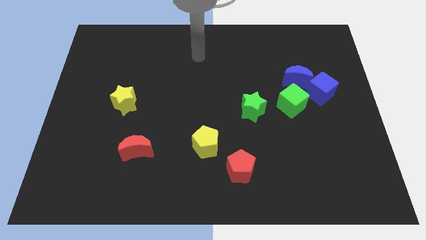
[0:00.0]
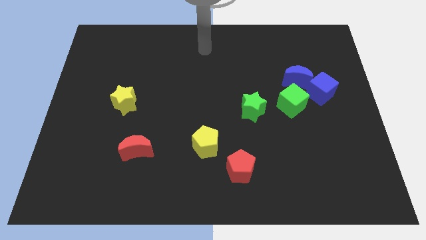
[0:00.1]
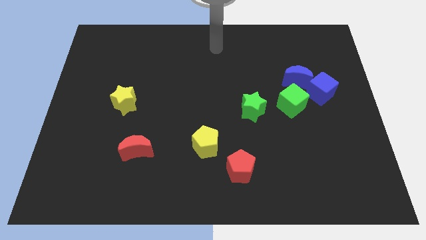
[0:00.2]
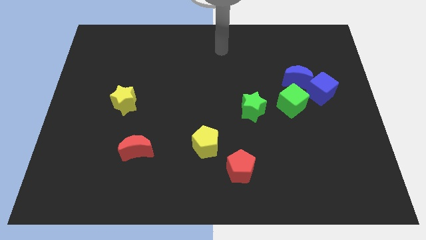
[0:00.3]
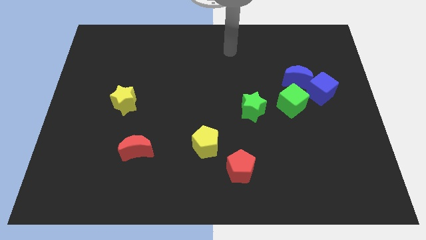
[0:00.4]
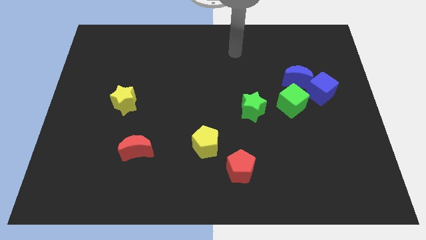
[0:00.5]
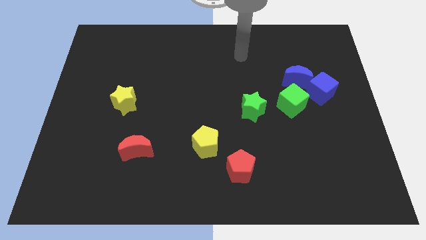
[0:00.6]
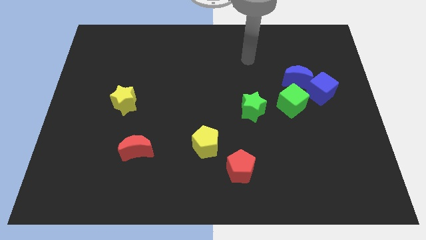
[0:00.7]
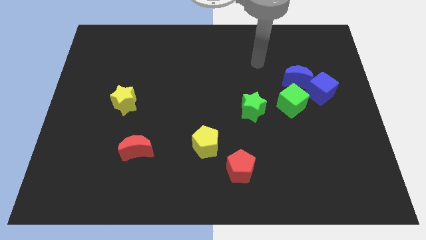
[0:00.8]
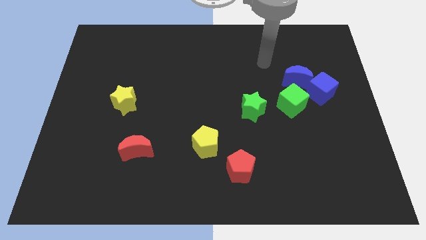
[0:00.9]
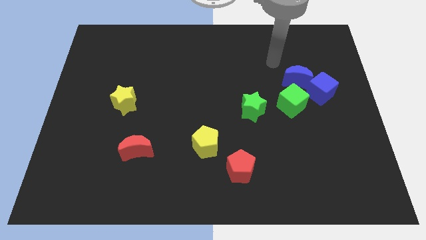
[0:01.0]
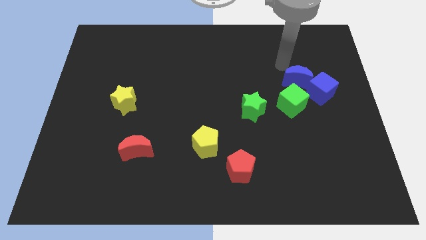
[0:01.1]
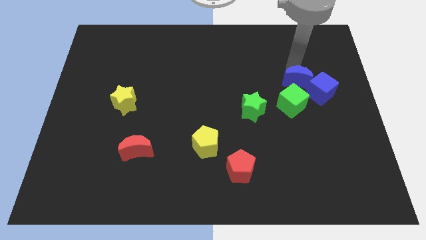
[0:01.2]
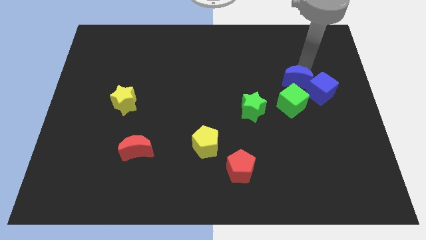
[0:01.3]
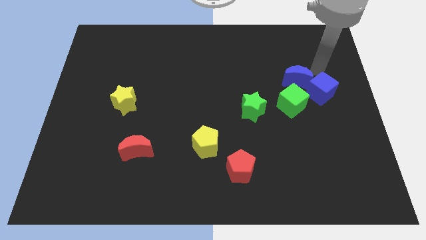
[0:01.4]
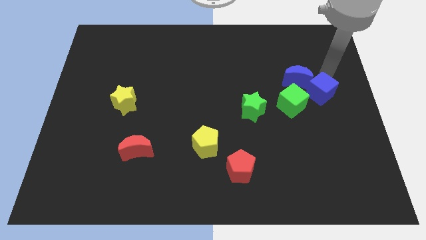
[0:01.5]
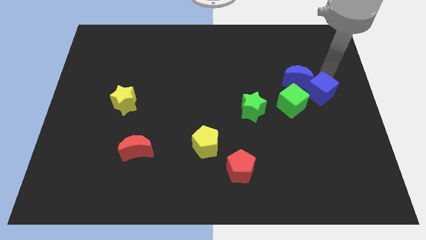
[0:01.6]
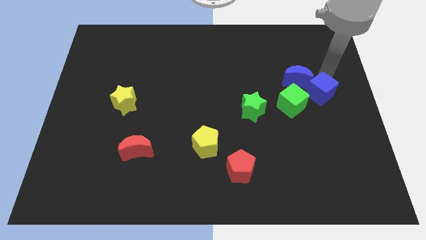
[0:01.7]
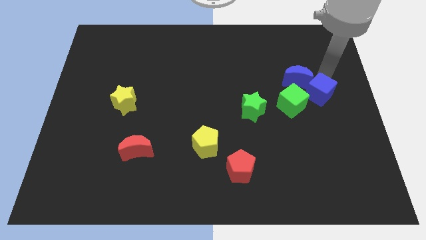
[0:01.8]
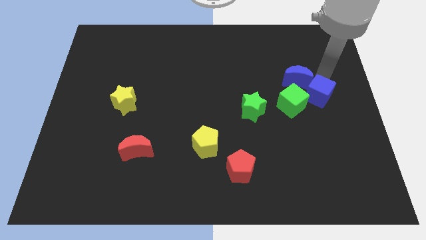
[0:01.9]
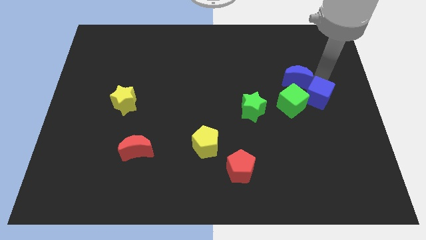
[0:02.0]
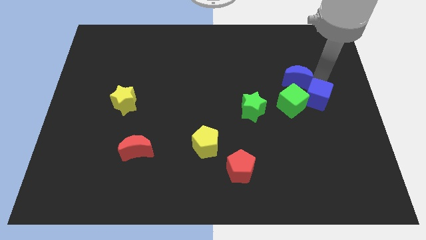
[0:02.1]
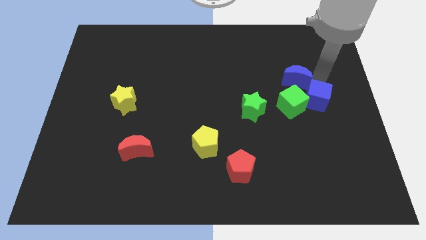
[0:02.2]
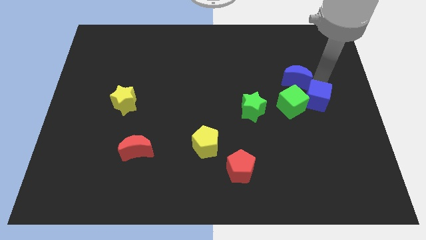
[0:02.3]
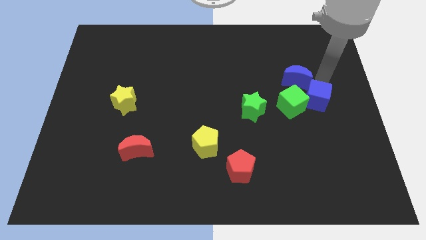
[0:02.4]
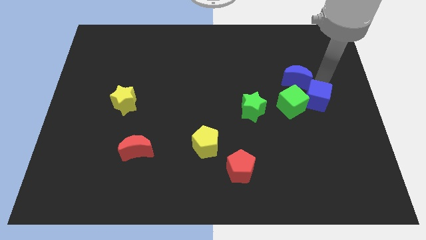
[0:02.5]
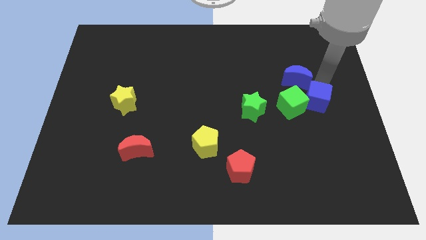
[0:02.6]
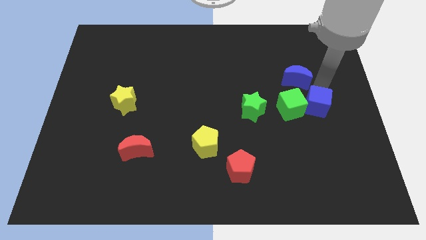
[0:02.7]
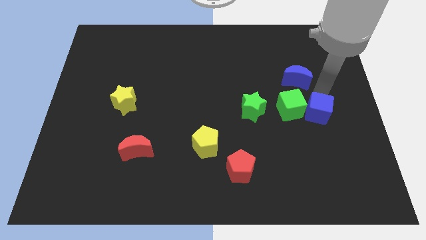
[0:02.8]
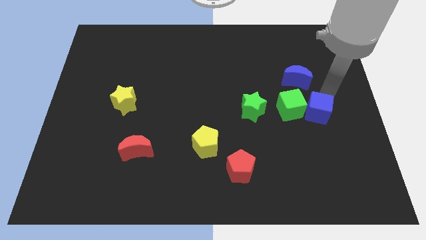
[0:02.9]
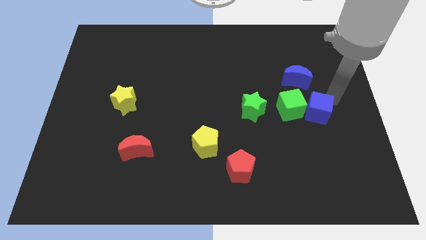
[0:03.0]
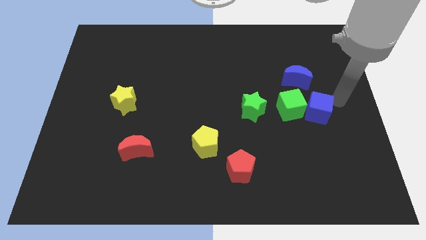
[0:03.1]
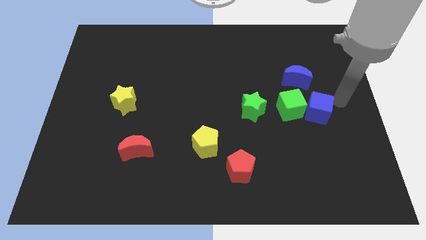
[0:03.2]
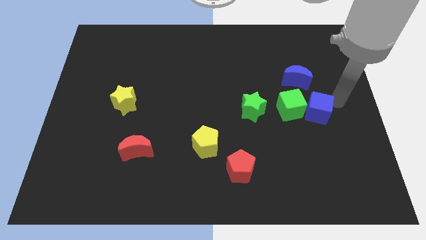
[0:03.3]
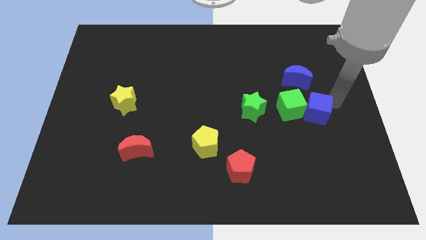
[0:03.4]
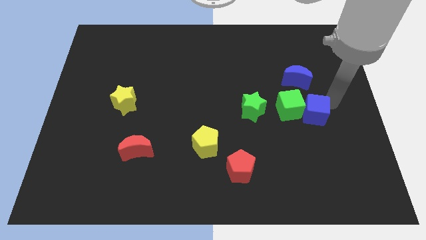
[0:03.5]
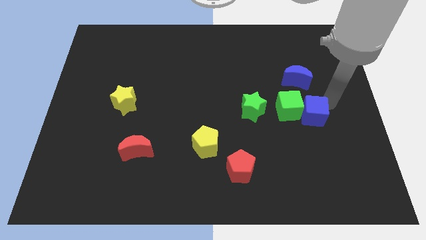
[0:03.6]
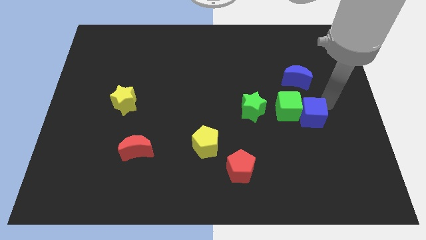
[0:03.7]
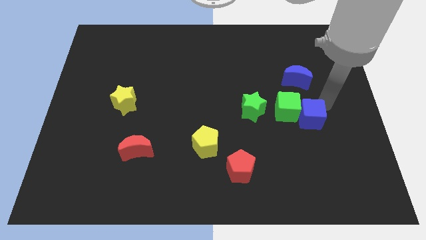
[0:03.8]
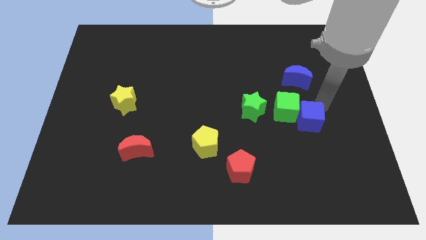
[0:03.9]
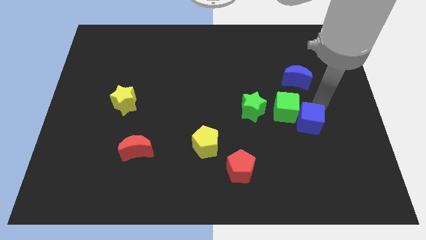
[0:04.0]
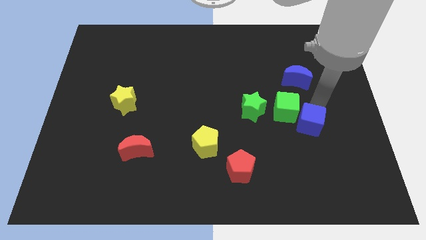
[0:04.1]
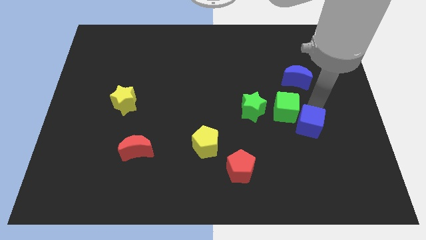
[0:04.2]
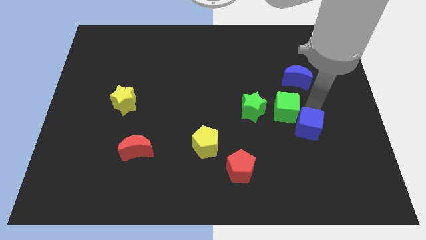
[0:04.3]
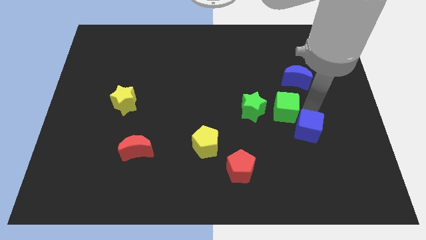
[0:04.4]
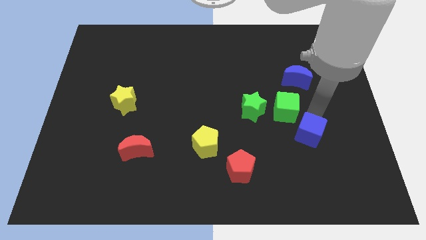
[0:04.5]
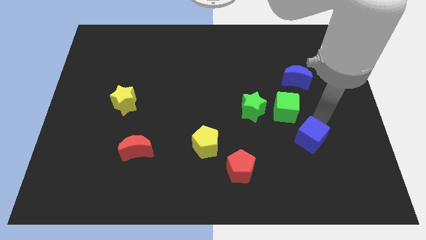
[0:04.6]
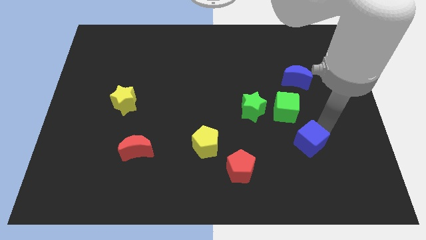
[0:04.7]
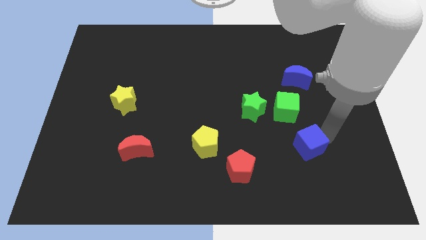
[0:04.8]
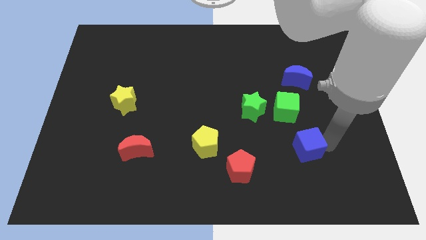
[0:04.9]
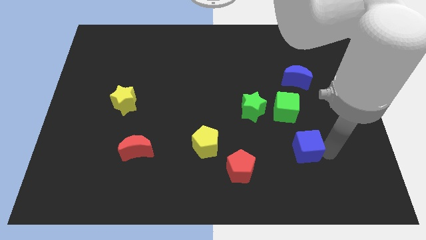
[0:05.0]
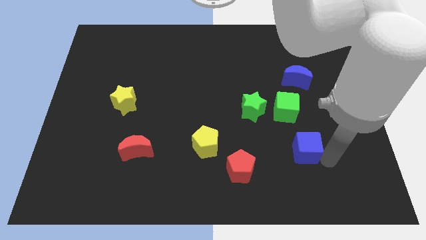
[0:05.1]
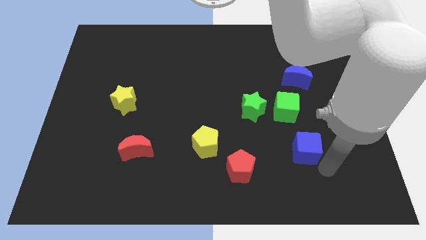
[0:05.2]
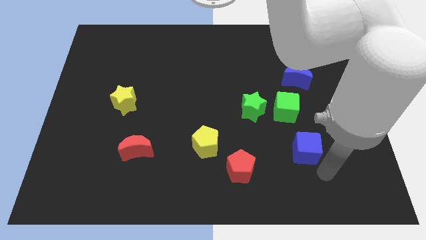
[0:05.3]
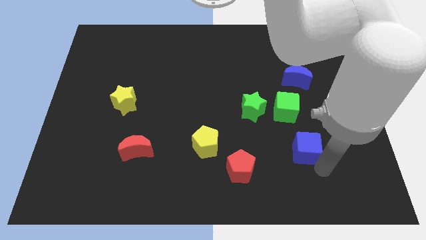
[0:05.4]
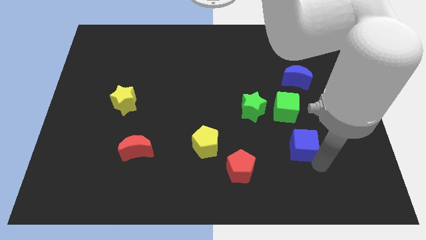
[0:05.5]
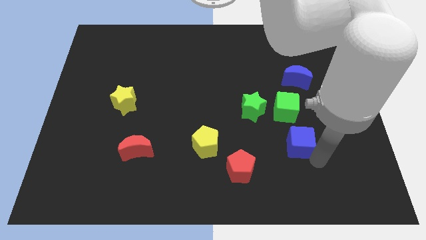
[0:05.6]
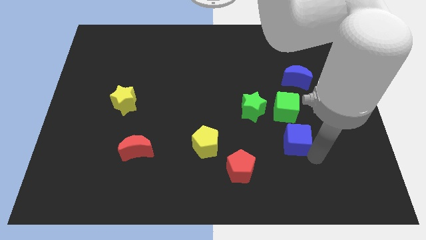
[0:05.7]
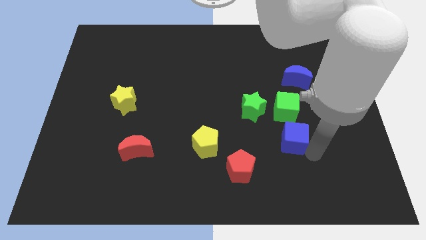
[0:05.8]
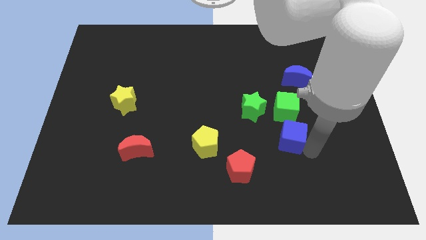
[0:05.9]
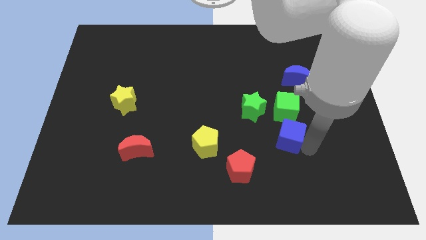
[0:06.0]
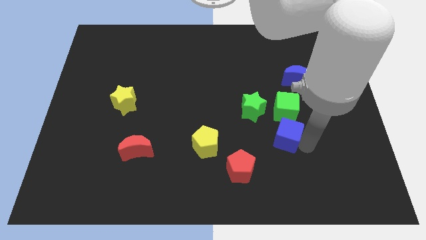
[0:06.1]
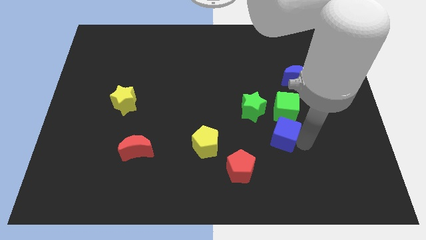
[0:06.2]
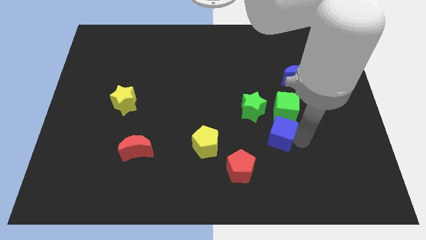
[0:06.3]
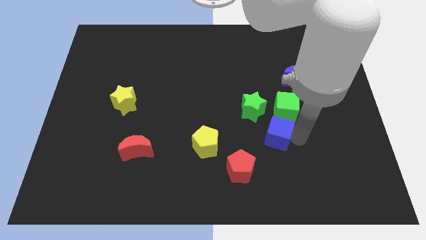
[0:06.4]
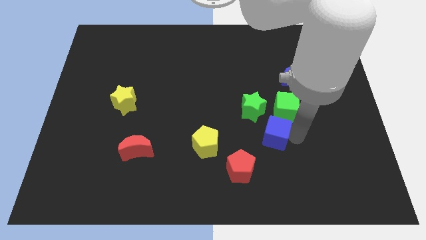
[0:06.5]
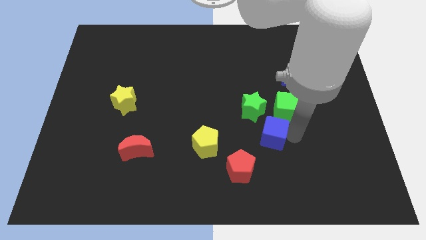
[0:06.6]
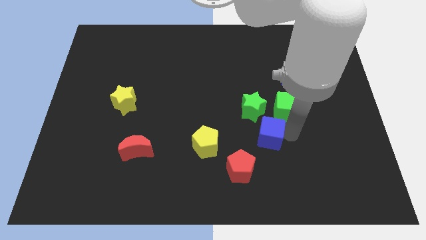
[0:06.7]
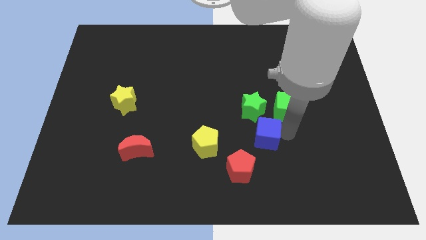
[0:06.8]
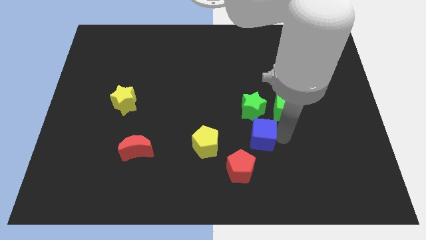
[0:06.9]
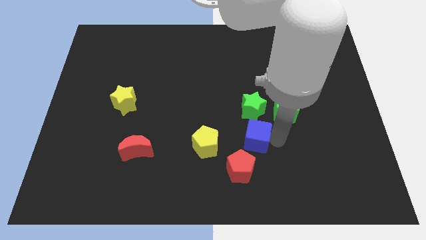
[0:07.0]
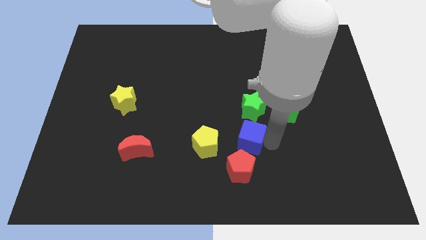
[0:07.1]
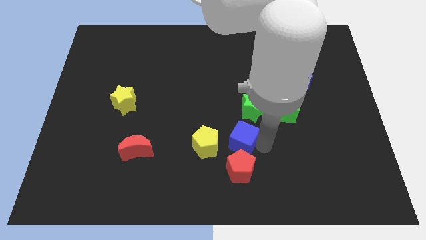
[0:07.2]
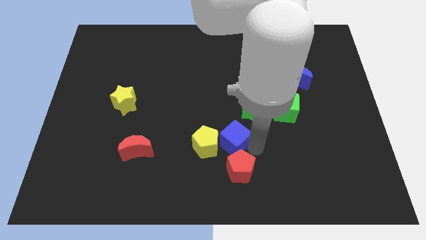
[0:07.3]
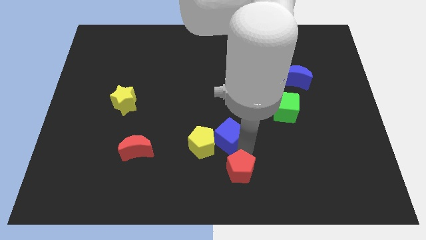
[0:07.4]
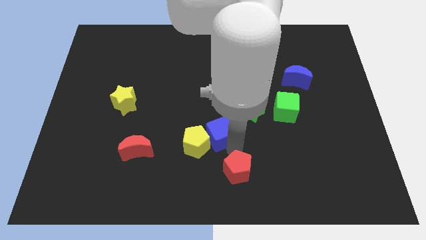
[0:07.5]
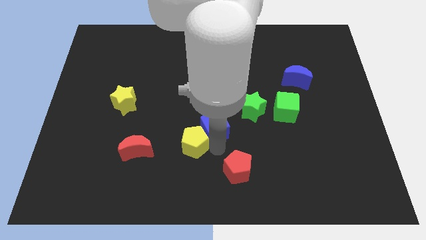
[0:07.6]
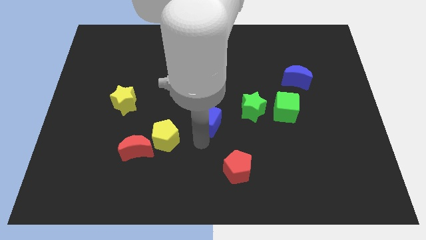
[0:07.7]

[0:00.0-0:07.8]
move the blue cube a little left
